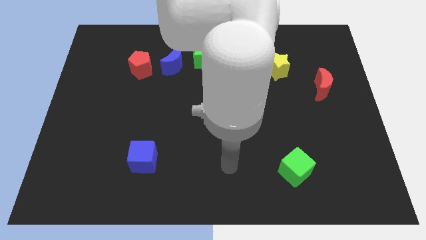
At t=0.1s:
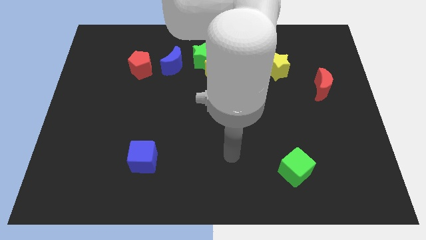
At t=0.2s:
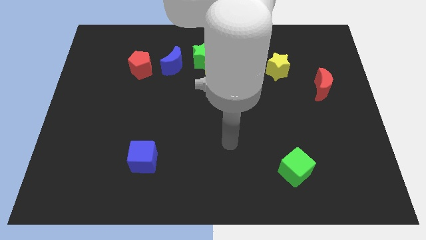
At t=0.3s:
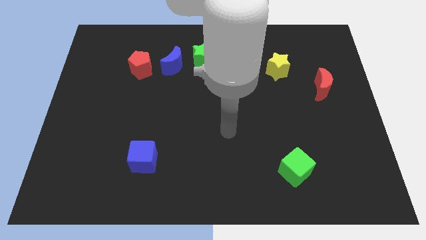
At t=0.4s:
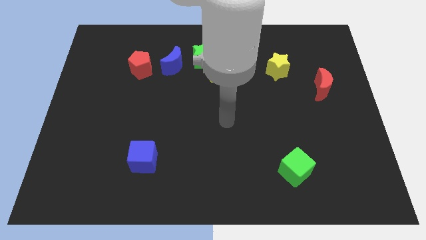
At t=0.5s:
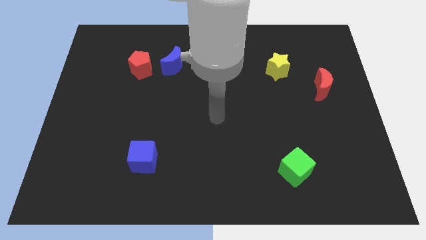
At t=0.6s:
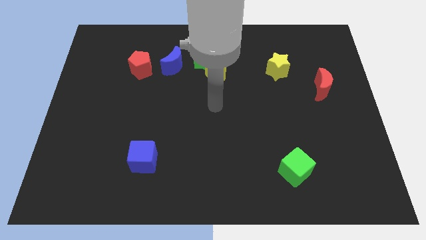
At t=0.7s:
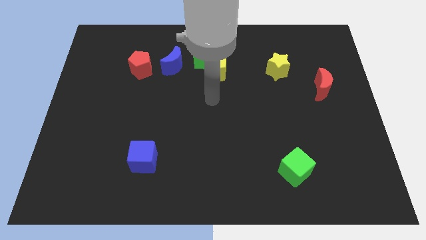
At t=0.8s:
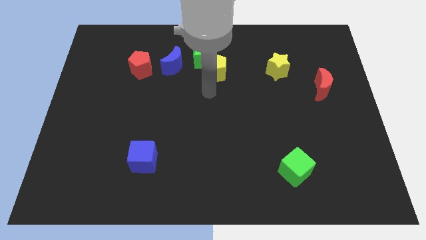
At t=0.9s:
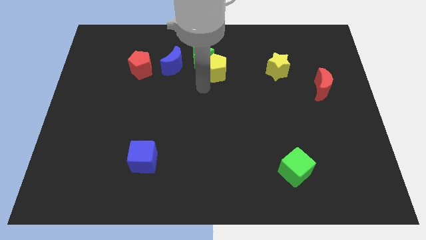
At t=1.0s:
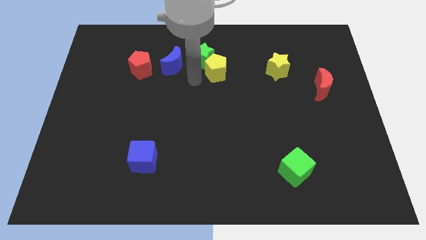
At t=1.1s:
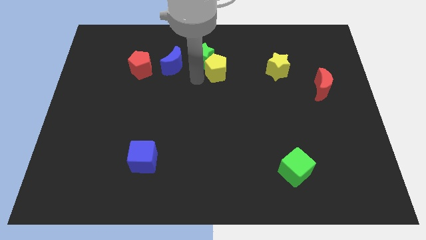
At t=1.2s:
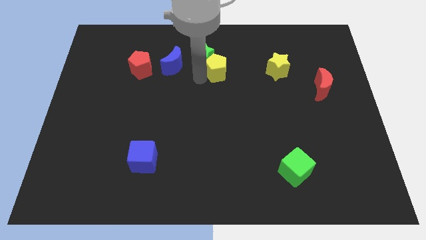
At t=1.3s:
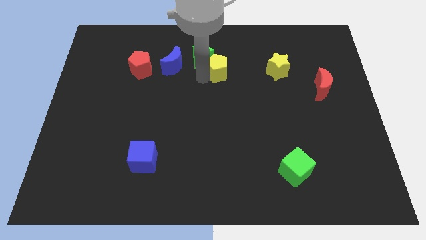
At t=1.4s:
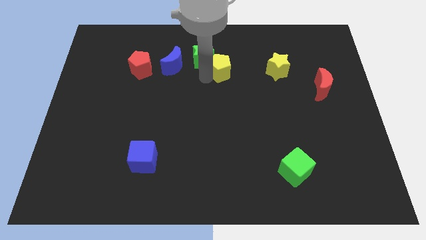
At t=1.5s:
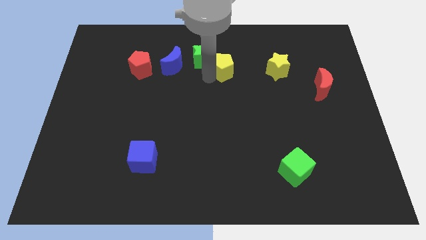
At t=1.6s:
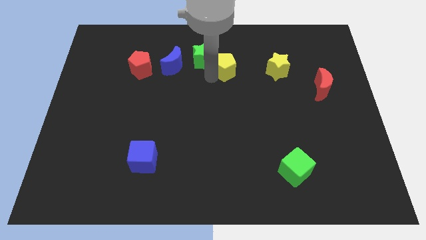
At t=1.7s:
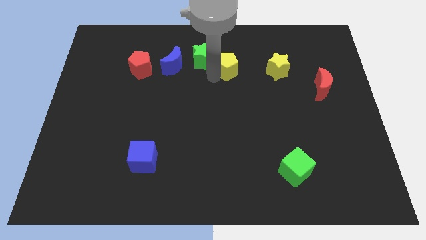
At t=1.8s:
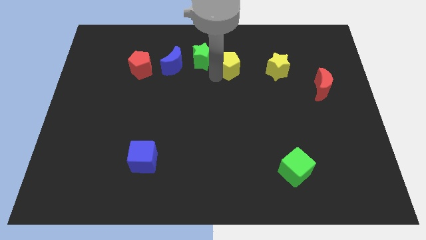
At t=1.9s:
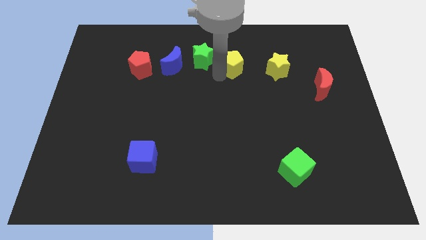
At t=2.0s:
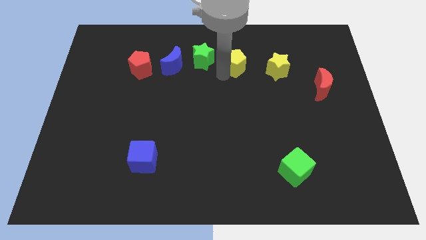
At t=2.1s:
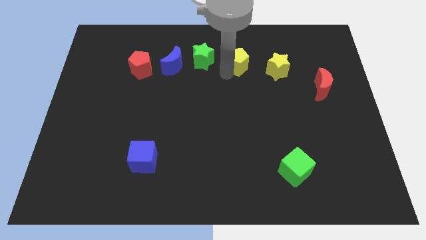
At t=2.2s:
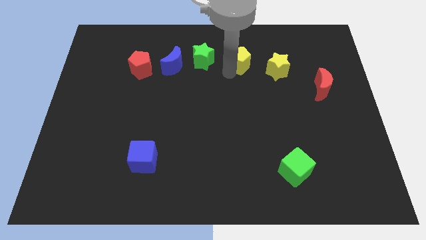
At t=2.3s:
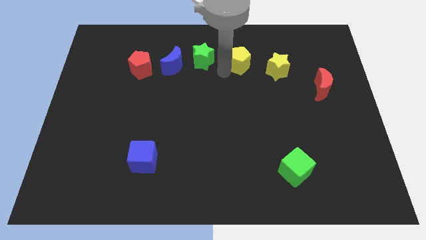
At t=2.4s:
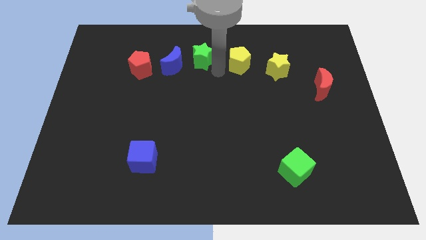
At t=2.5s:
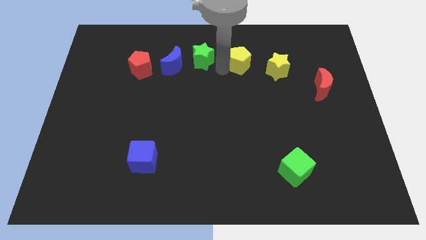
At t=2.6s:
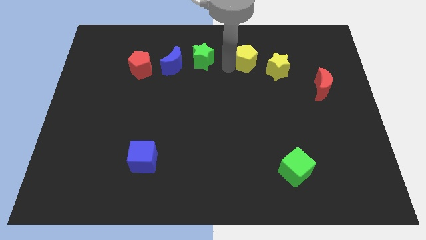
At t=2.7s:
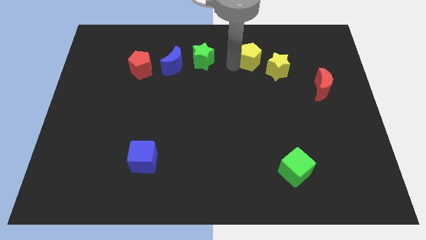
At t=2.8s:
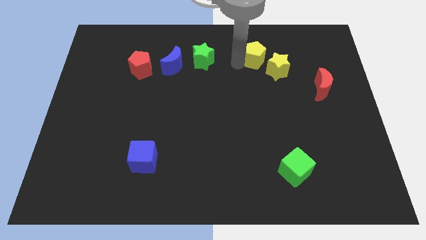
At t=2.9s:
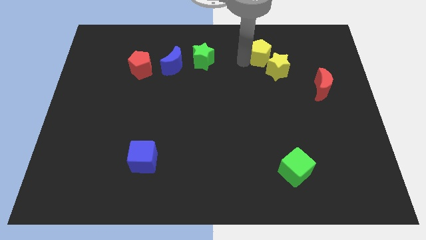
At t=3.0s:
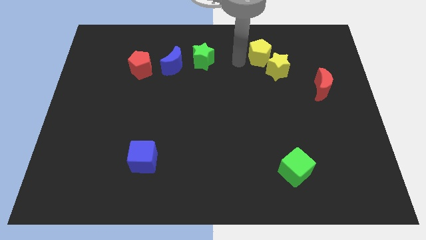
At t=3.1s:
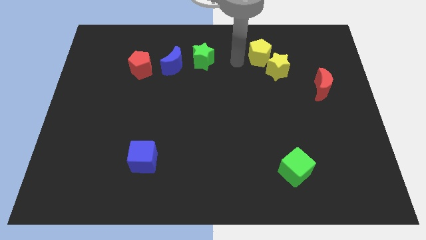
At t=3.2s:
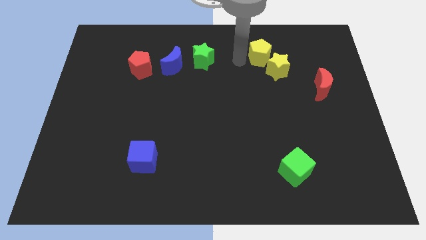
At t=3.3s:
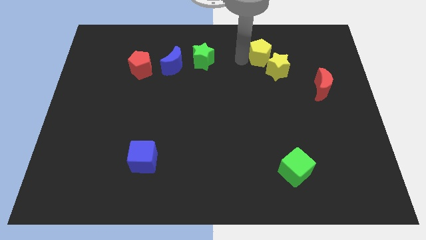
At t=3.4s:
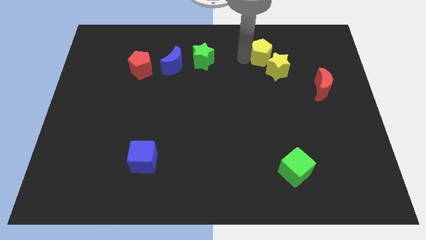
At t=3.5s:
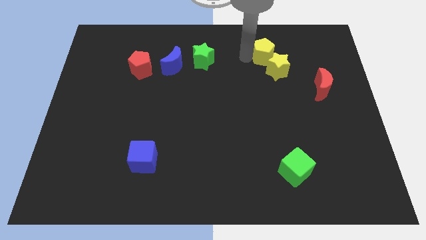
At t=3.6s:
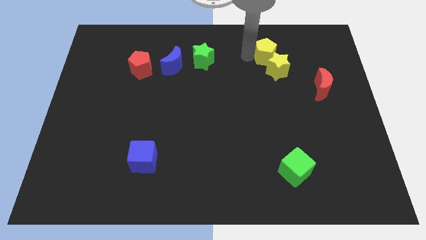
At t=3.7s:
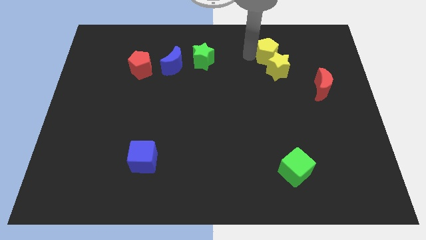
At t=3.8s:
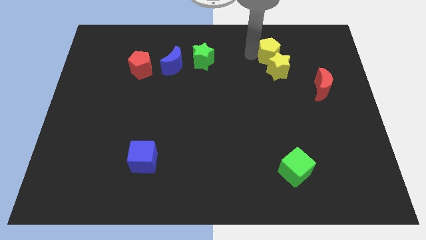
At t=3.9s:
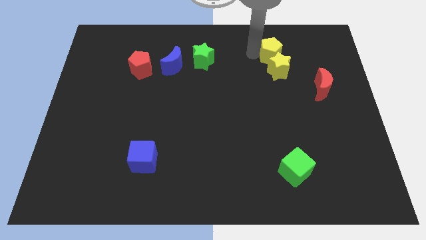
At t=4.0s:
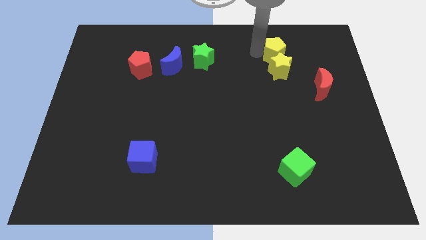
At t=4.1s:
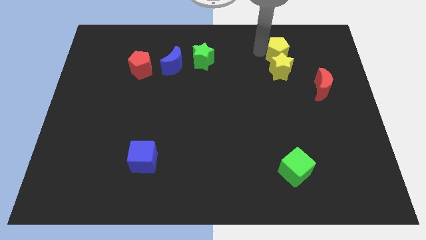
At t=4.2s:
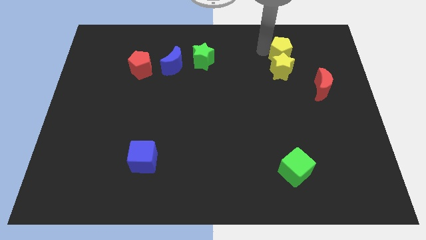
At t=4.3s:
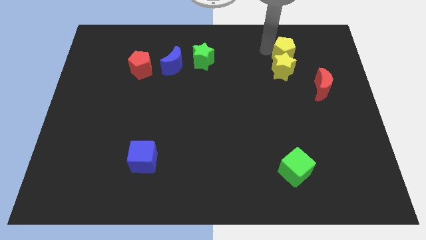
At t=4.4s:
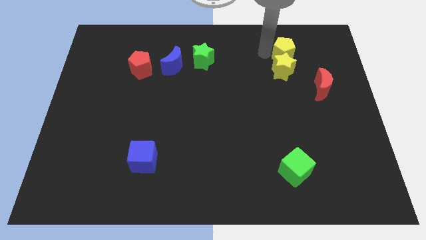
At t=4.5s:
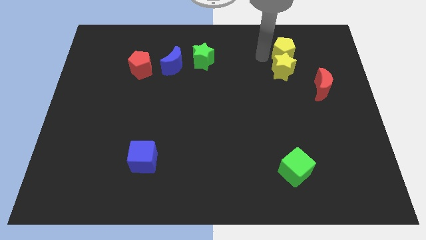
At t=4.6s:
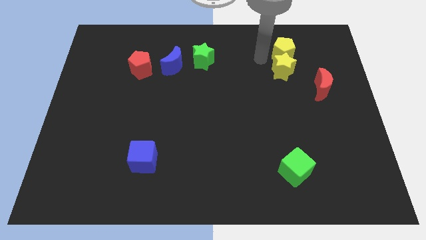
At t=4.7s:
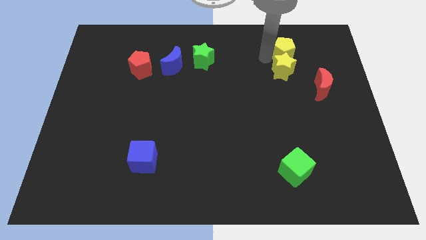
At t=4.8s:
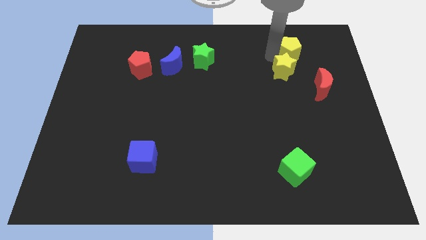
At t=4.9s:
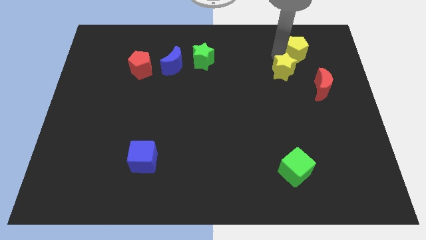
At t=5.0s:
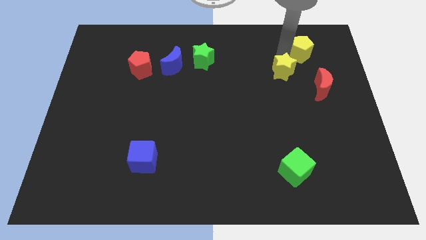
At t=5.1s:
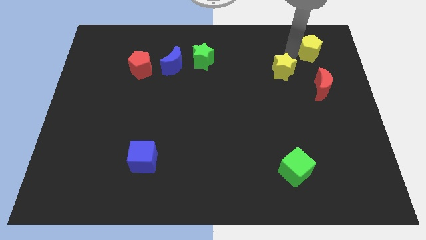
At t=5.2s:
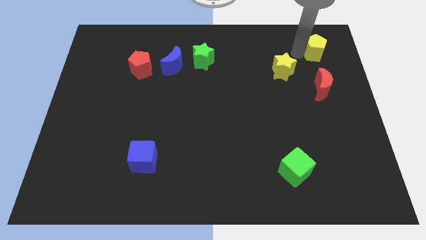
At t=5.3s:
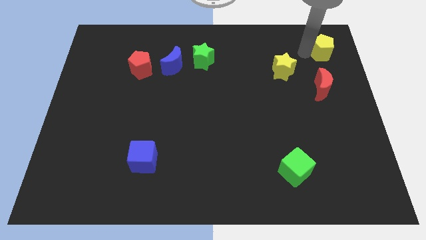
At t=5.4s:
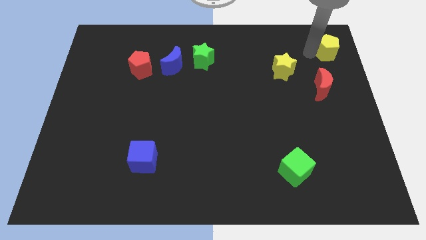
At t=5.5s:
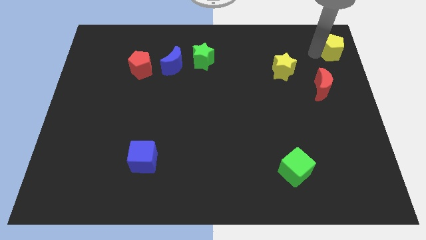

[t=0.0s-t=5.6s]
move the yellow pentagon to the top right corner

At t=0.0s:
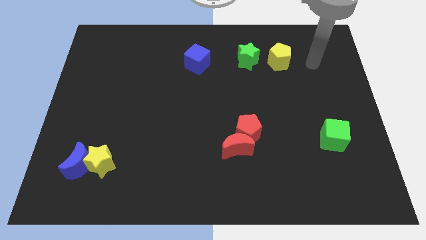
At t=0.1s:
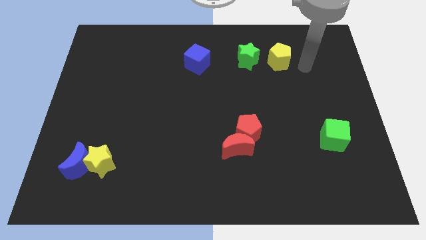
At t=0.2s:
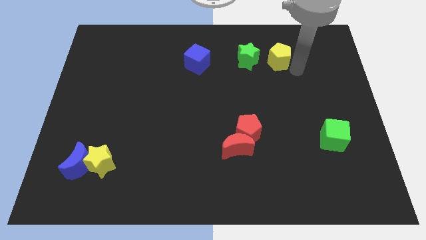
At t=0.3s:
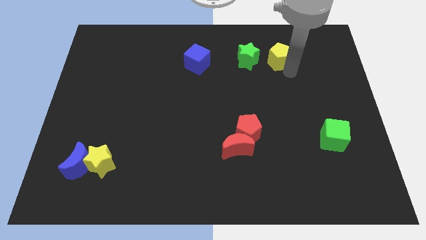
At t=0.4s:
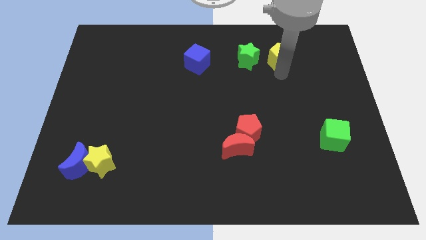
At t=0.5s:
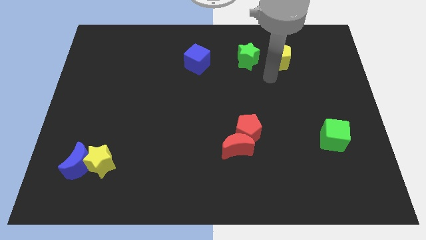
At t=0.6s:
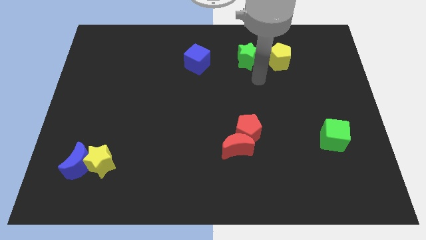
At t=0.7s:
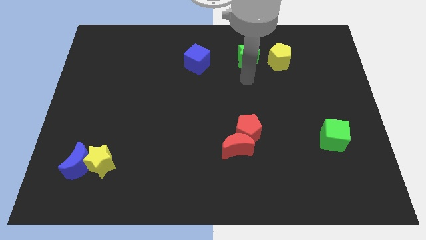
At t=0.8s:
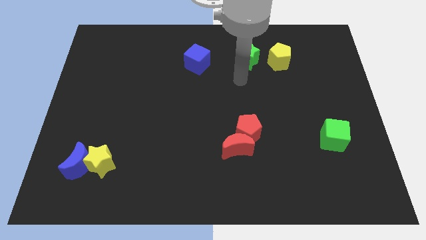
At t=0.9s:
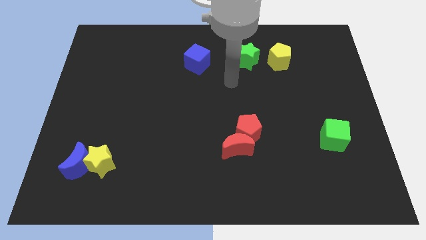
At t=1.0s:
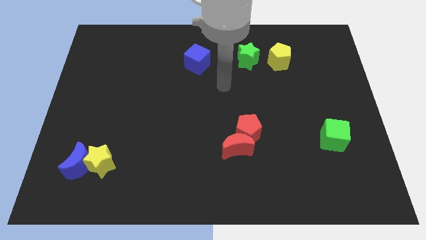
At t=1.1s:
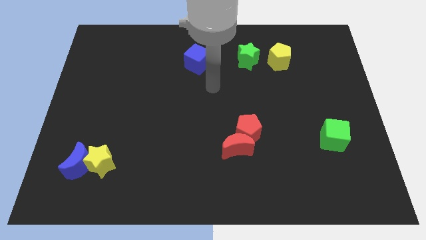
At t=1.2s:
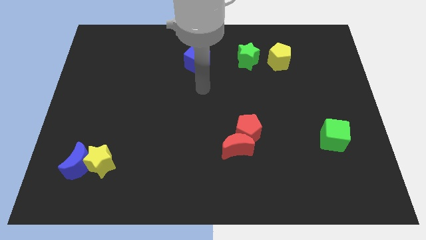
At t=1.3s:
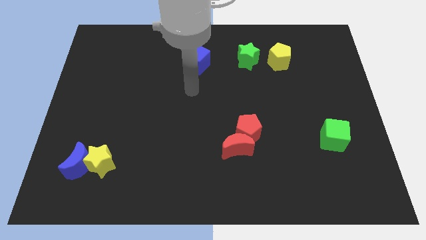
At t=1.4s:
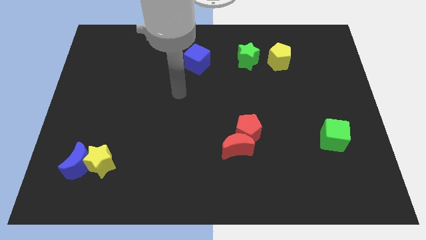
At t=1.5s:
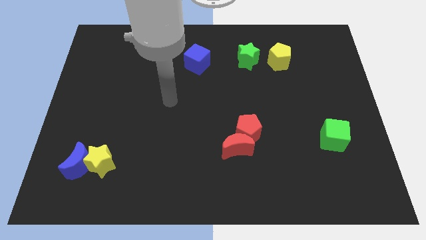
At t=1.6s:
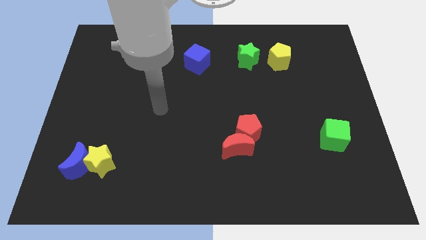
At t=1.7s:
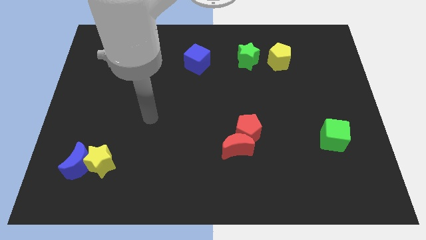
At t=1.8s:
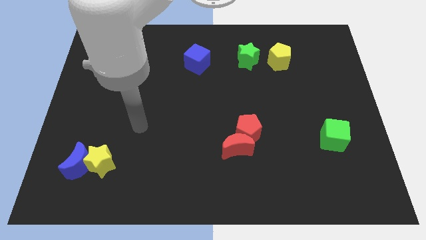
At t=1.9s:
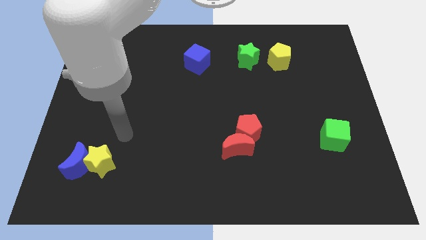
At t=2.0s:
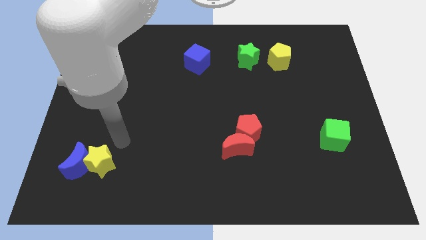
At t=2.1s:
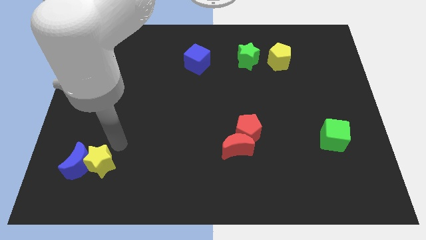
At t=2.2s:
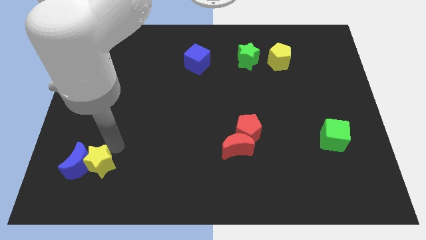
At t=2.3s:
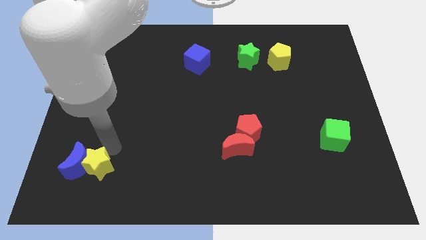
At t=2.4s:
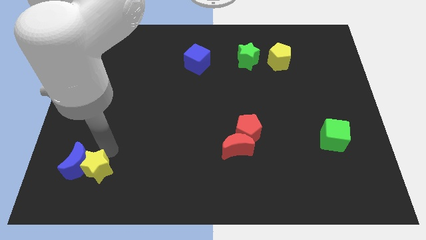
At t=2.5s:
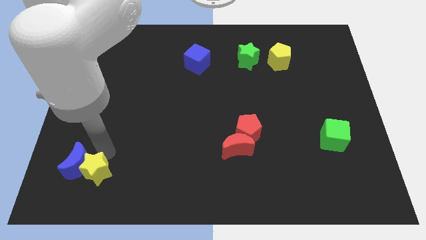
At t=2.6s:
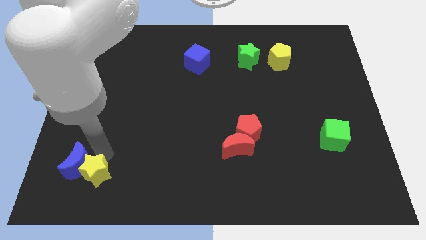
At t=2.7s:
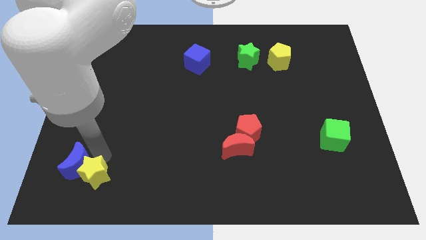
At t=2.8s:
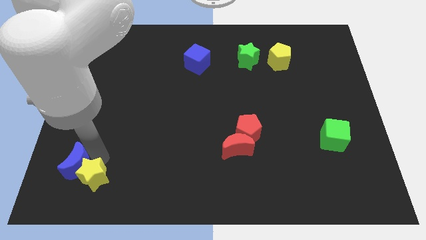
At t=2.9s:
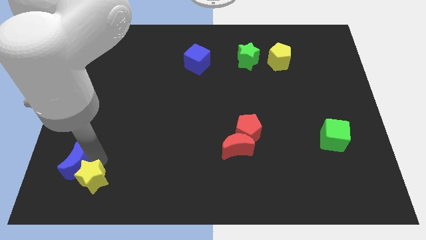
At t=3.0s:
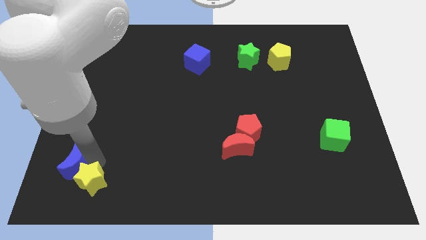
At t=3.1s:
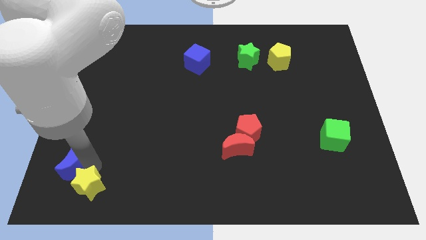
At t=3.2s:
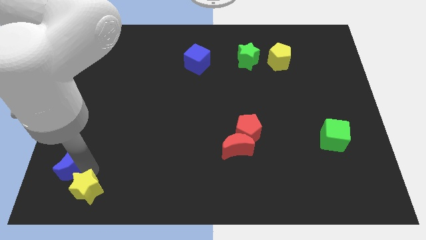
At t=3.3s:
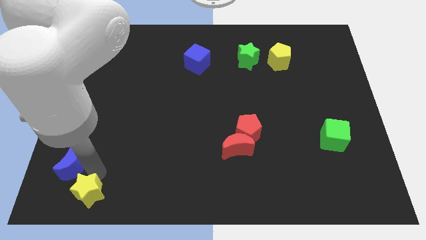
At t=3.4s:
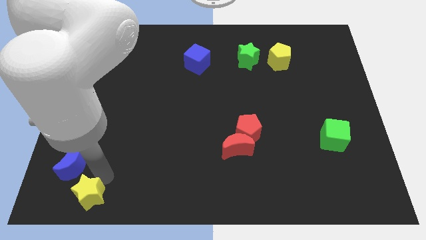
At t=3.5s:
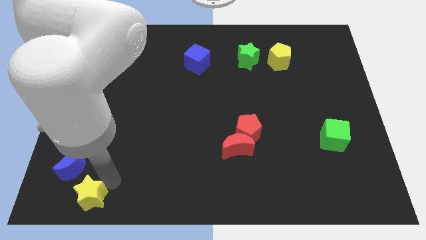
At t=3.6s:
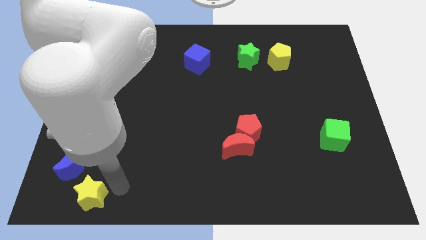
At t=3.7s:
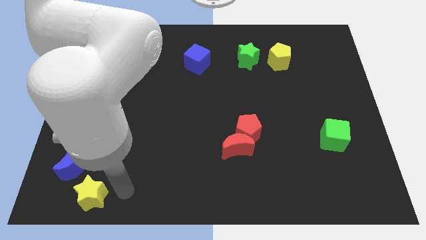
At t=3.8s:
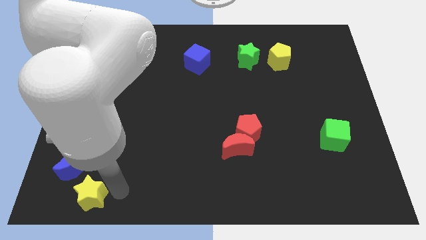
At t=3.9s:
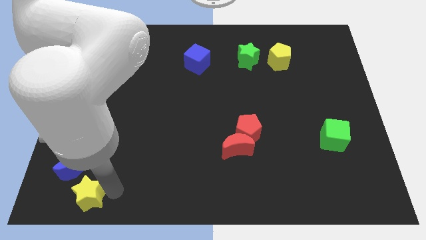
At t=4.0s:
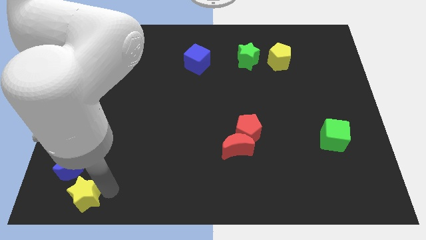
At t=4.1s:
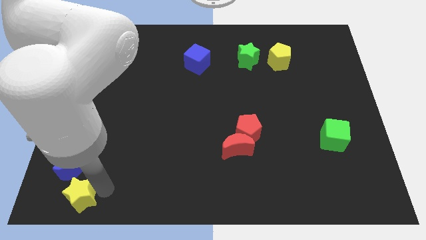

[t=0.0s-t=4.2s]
push the yellow star to the bottom left of the board
